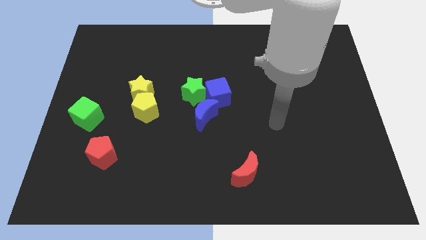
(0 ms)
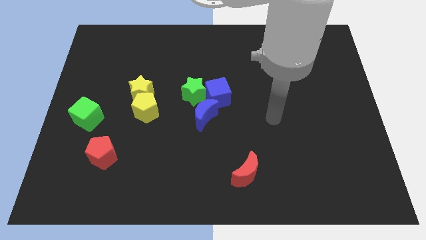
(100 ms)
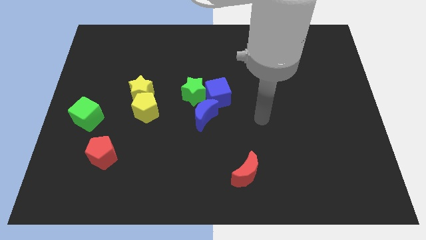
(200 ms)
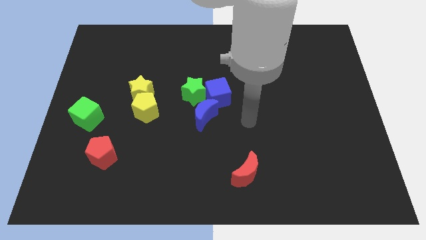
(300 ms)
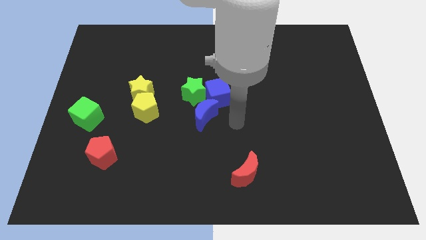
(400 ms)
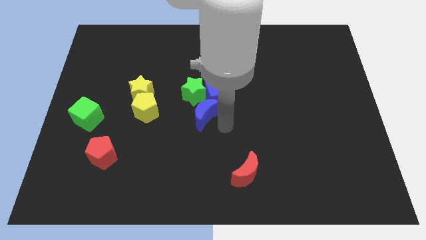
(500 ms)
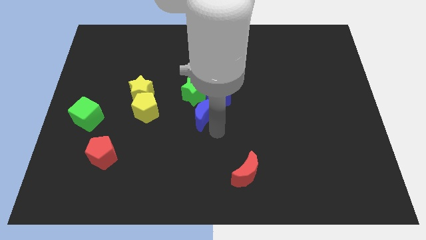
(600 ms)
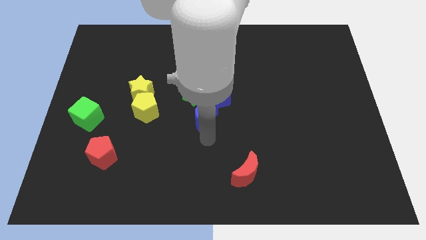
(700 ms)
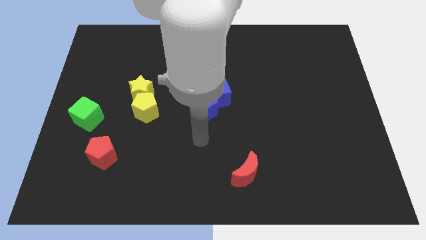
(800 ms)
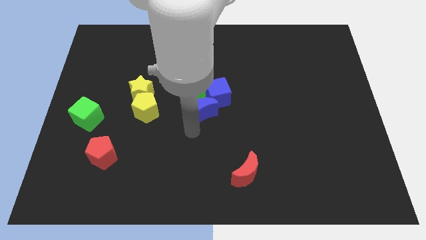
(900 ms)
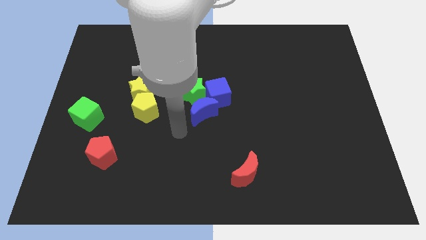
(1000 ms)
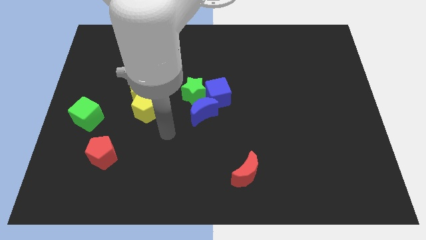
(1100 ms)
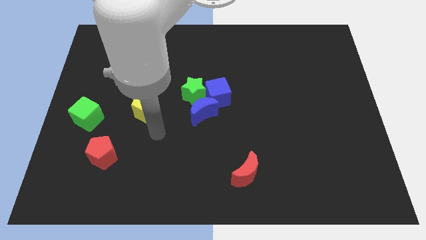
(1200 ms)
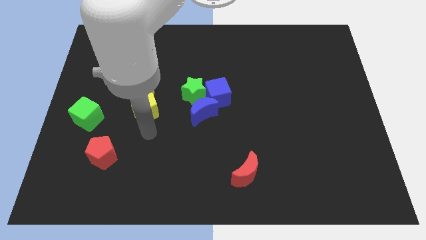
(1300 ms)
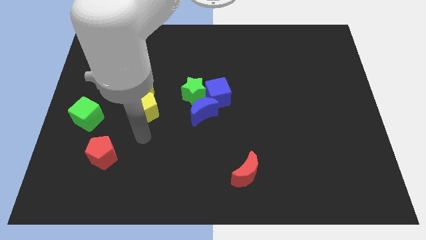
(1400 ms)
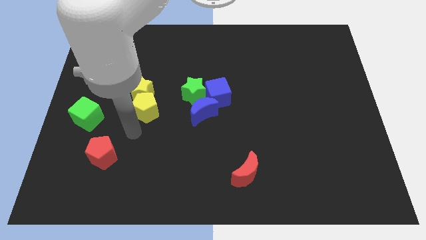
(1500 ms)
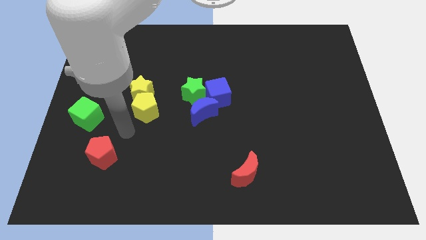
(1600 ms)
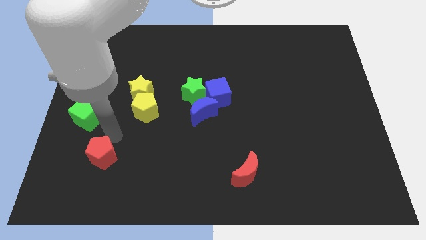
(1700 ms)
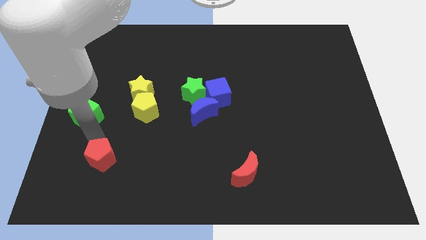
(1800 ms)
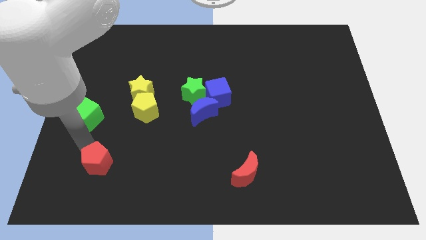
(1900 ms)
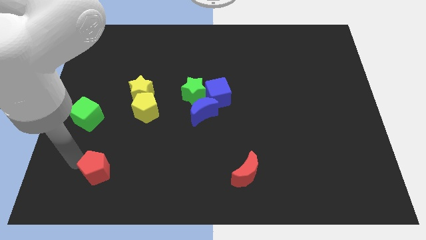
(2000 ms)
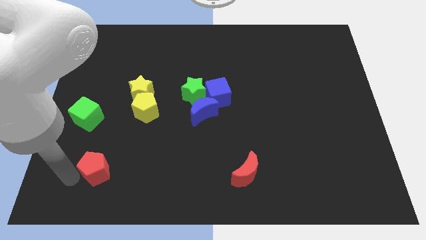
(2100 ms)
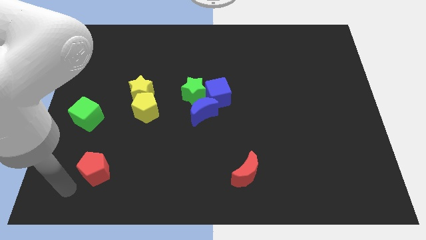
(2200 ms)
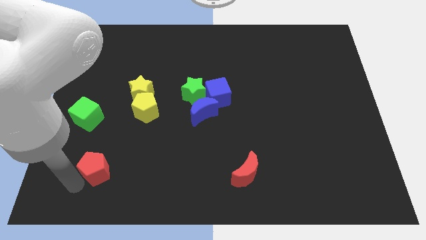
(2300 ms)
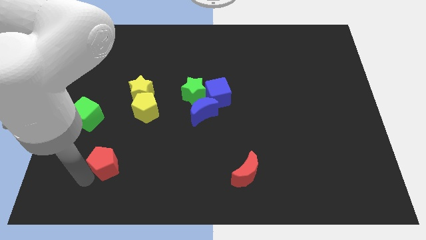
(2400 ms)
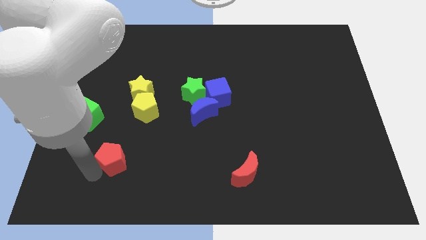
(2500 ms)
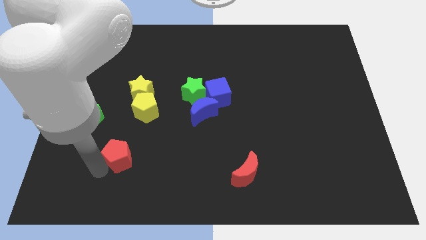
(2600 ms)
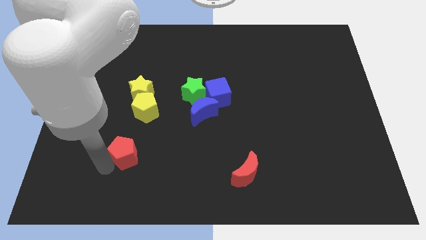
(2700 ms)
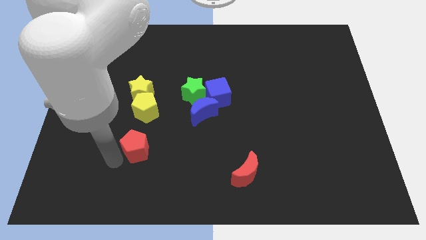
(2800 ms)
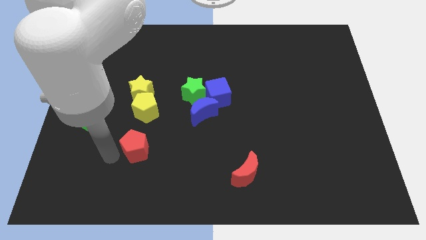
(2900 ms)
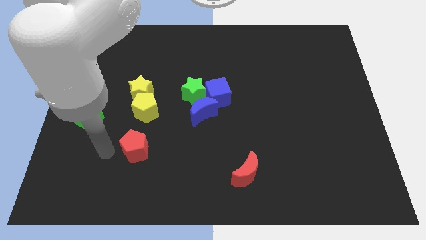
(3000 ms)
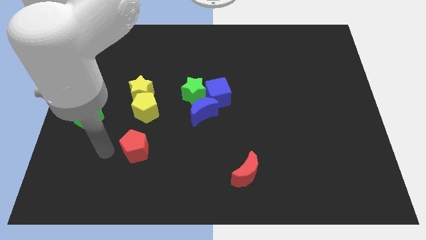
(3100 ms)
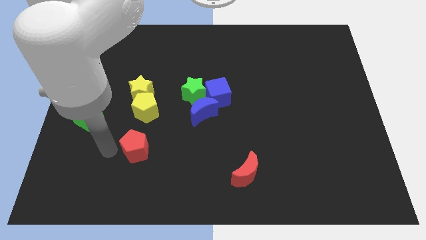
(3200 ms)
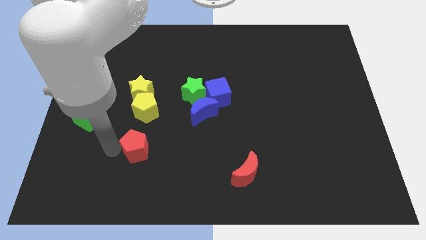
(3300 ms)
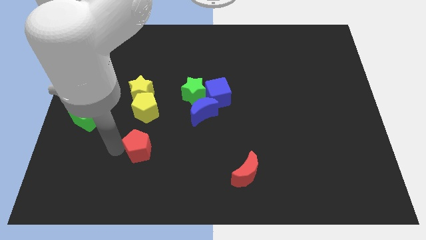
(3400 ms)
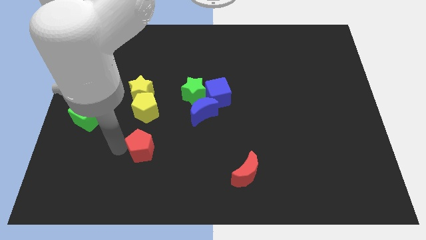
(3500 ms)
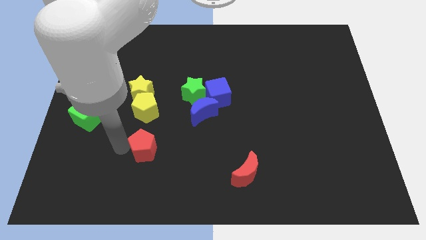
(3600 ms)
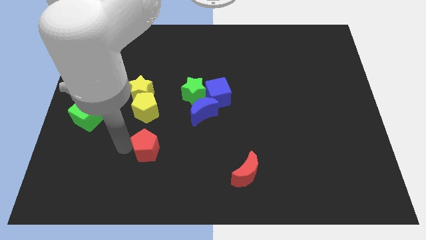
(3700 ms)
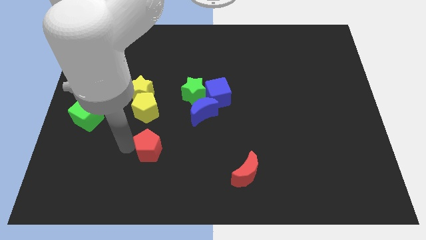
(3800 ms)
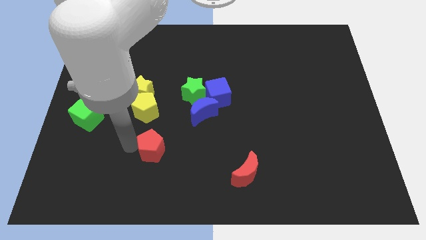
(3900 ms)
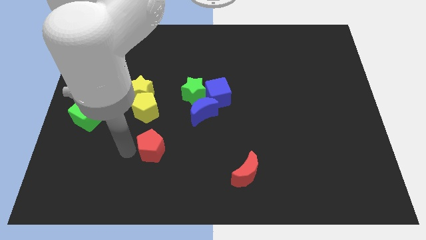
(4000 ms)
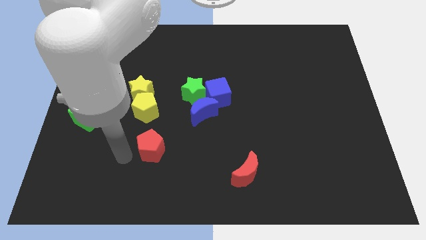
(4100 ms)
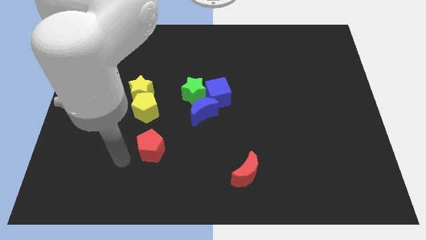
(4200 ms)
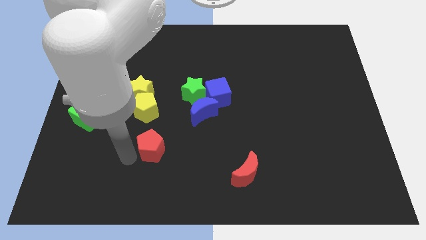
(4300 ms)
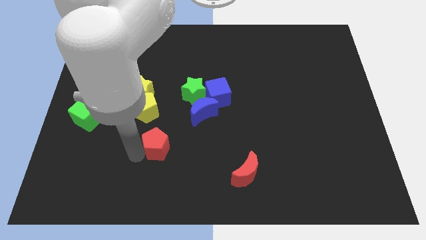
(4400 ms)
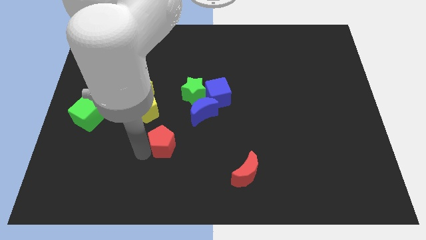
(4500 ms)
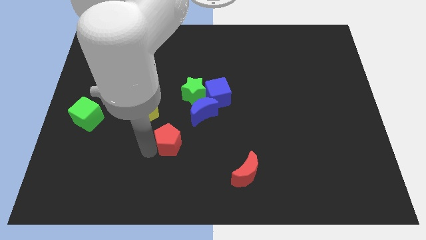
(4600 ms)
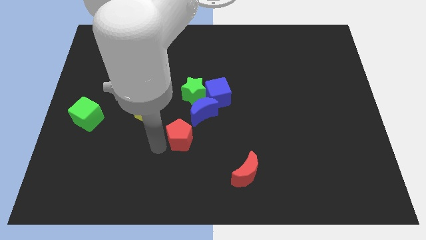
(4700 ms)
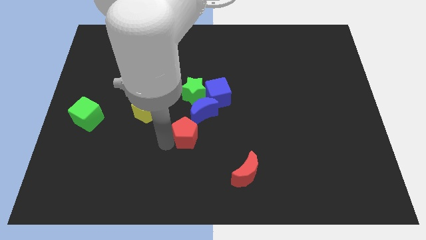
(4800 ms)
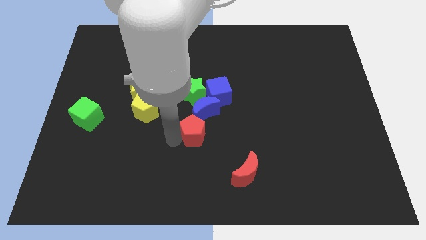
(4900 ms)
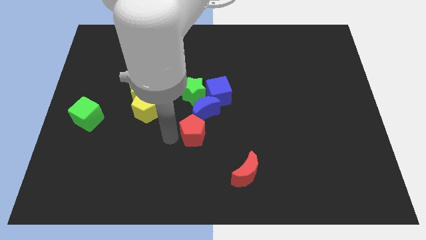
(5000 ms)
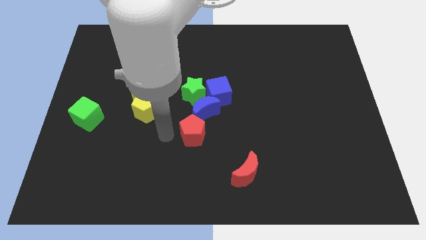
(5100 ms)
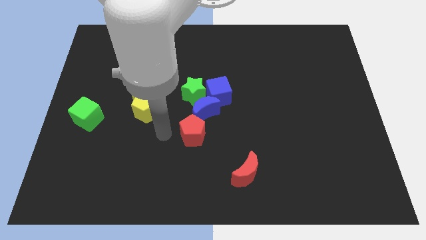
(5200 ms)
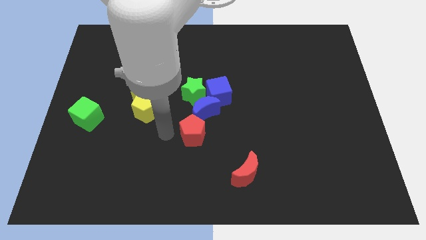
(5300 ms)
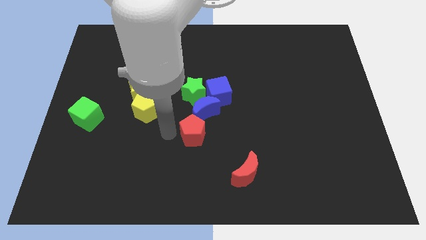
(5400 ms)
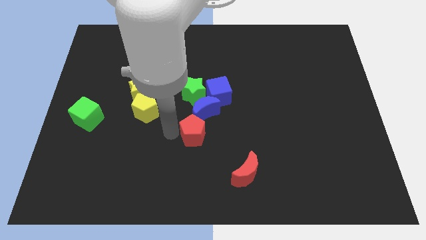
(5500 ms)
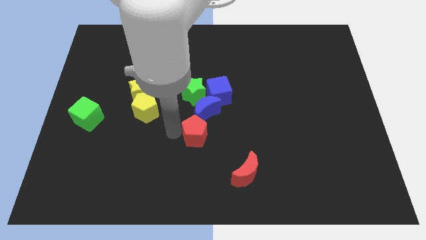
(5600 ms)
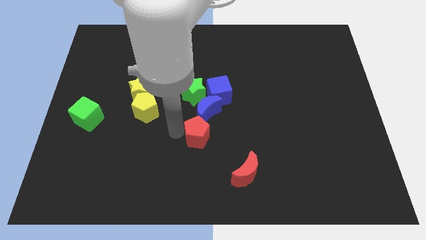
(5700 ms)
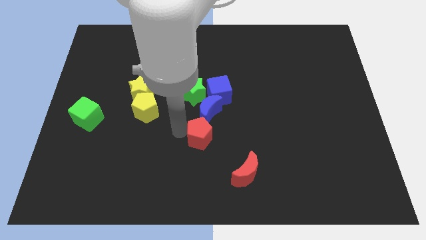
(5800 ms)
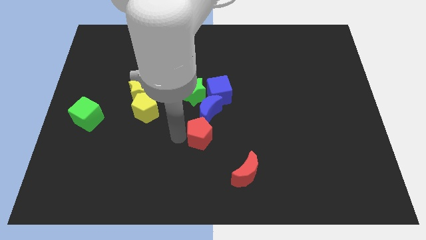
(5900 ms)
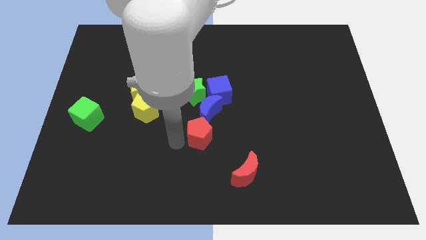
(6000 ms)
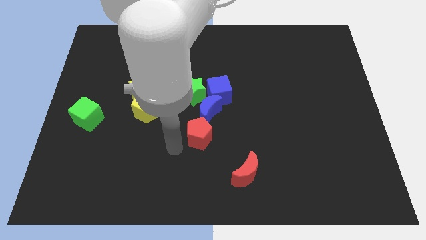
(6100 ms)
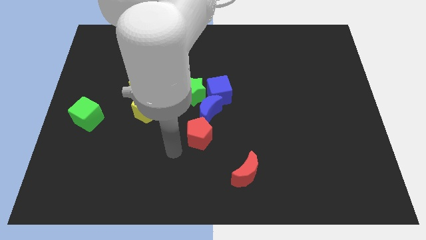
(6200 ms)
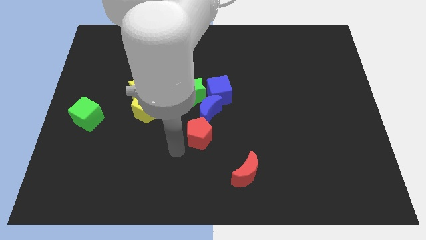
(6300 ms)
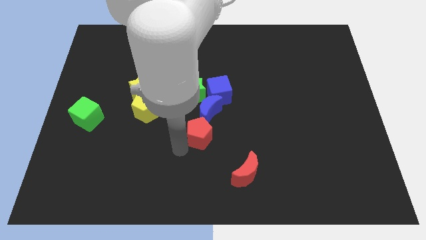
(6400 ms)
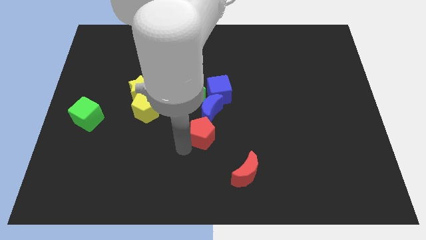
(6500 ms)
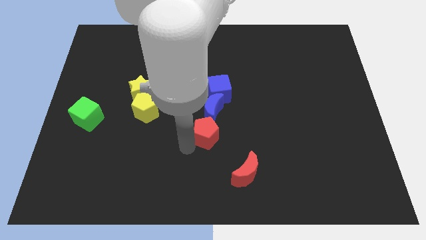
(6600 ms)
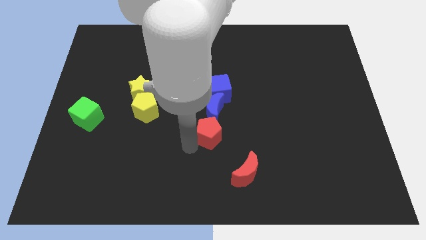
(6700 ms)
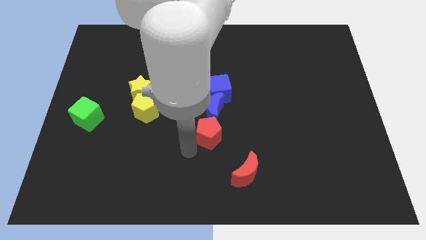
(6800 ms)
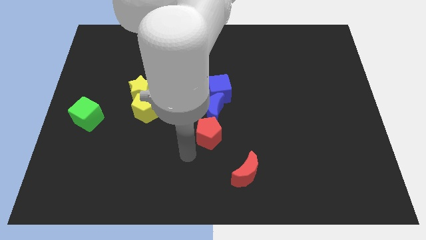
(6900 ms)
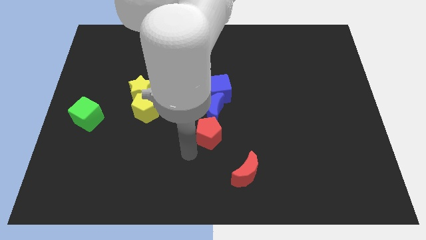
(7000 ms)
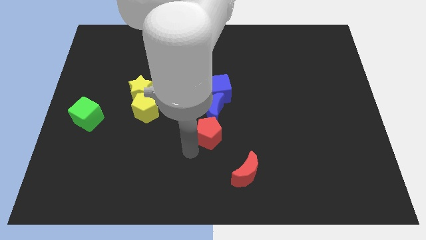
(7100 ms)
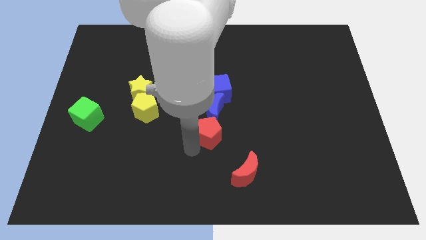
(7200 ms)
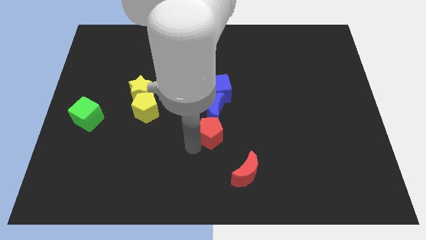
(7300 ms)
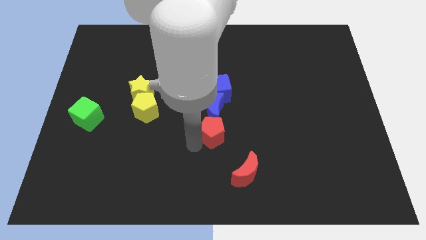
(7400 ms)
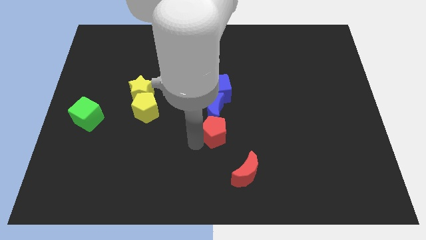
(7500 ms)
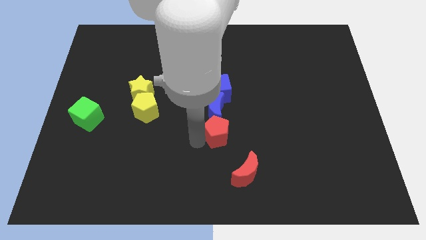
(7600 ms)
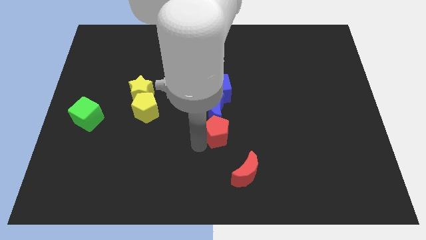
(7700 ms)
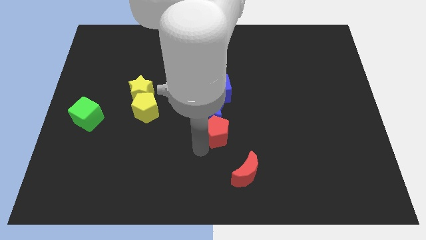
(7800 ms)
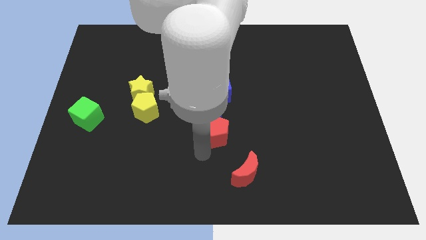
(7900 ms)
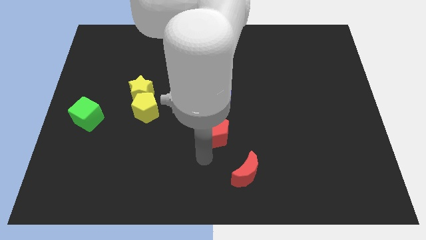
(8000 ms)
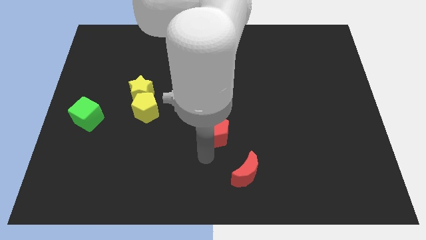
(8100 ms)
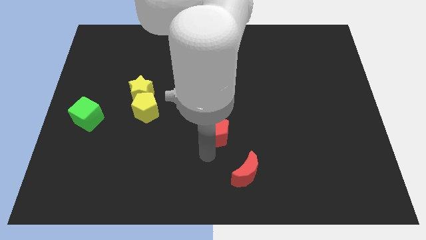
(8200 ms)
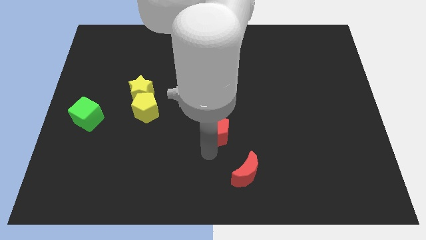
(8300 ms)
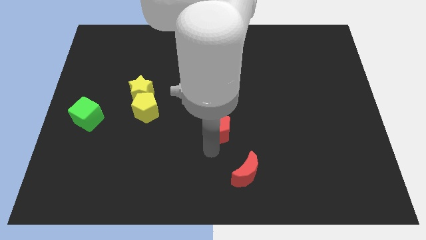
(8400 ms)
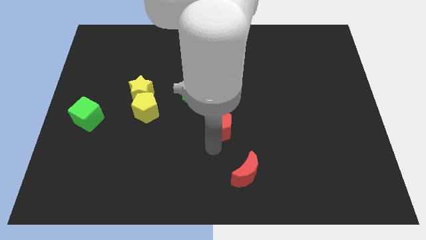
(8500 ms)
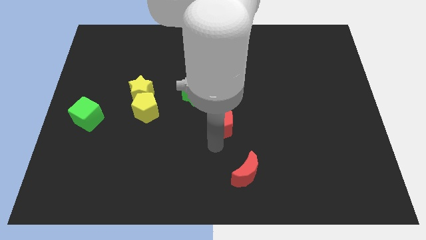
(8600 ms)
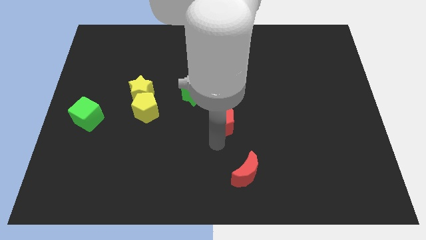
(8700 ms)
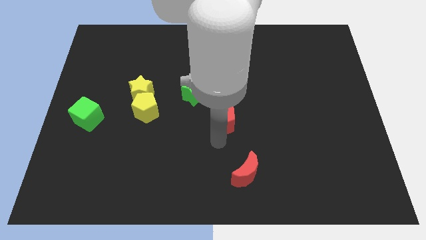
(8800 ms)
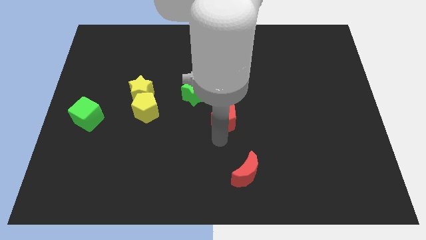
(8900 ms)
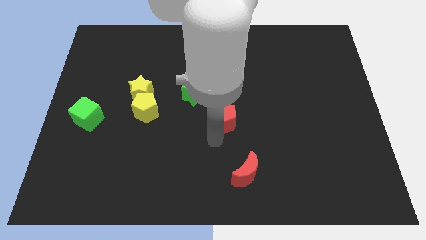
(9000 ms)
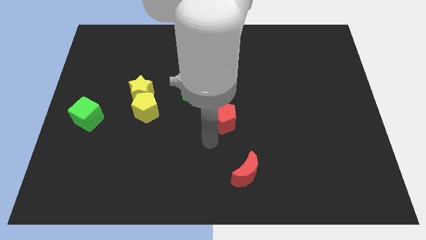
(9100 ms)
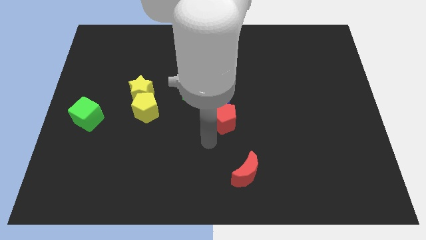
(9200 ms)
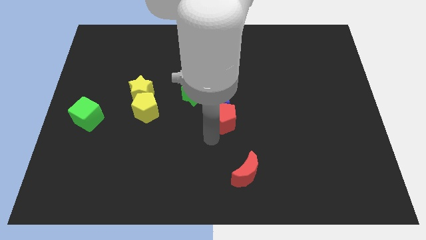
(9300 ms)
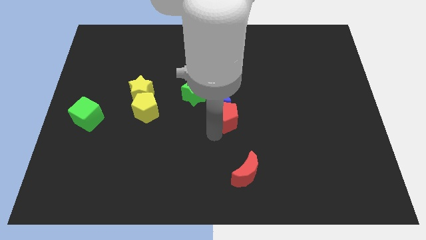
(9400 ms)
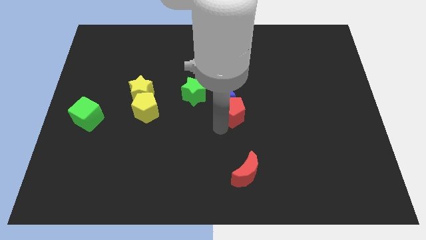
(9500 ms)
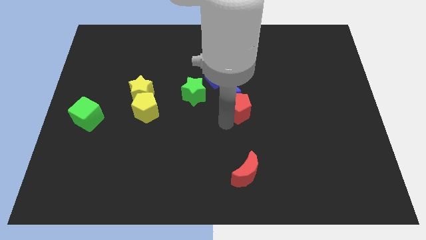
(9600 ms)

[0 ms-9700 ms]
slide the red pentagon to the right side of the green star
